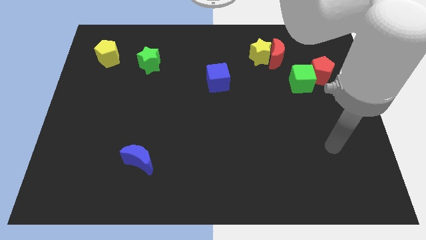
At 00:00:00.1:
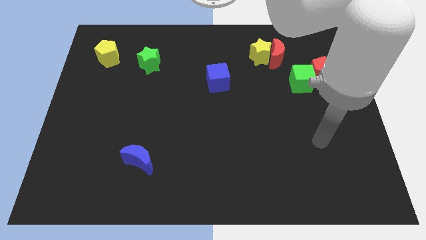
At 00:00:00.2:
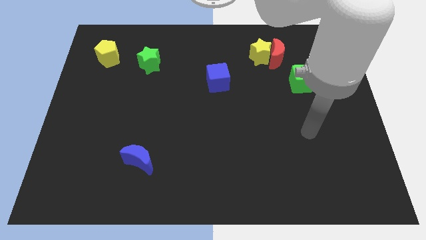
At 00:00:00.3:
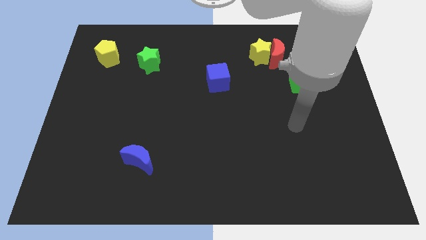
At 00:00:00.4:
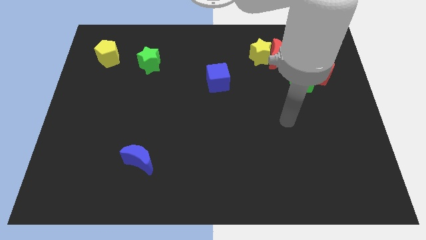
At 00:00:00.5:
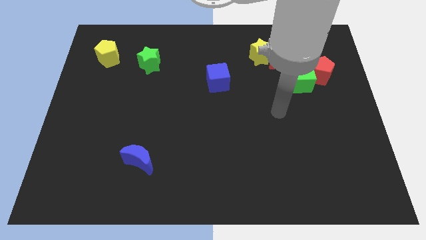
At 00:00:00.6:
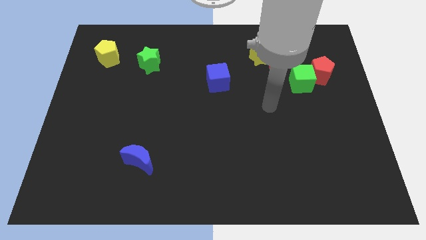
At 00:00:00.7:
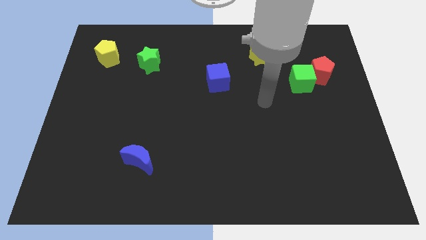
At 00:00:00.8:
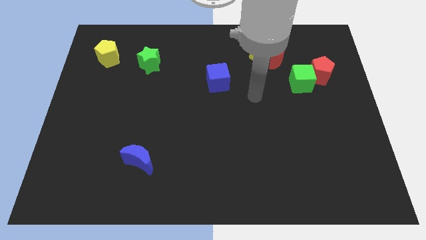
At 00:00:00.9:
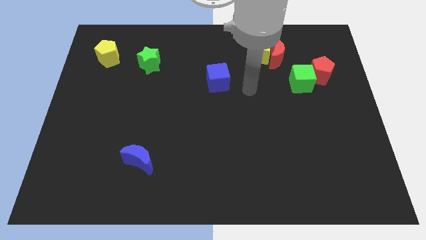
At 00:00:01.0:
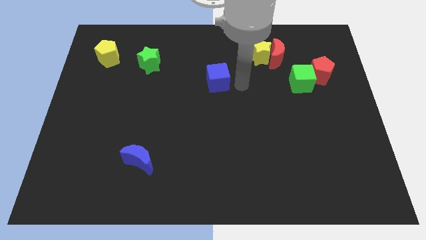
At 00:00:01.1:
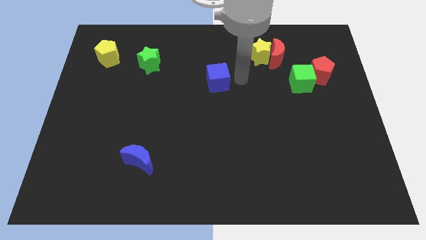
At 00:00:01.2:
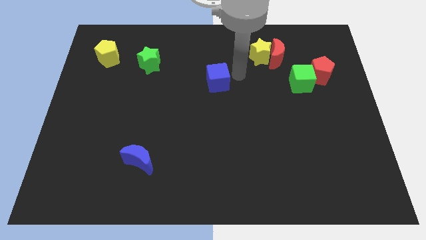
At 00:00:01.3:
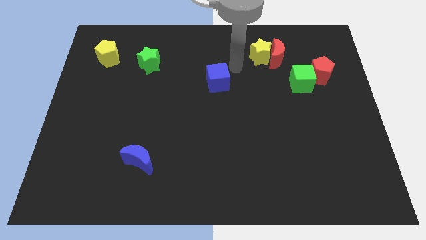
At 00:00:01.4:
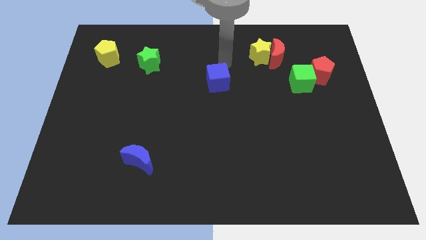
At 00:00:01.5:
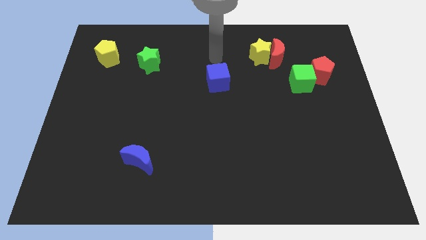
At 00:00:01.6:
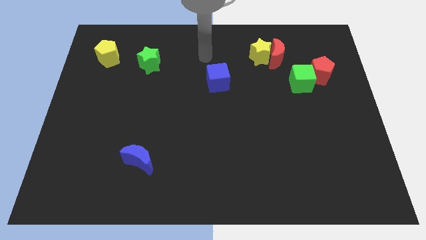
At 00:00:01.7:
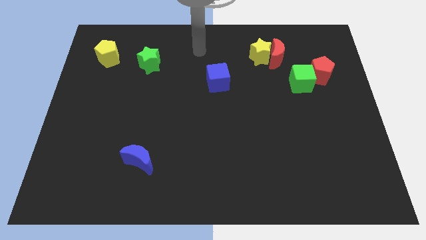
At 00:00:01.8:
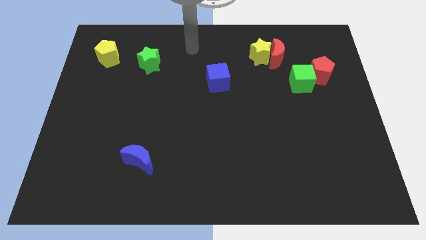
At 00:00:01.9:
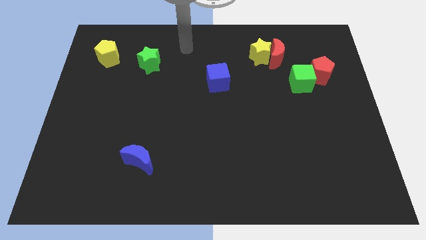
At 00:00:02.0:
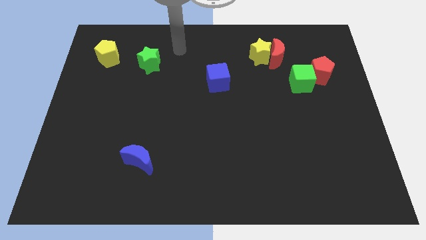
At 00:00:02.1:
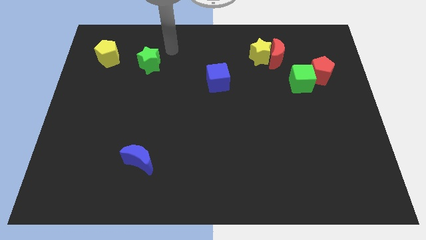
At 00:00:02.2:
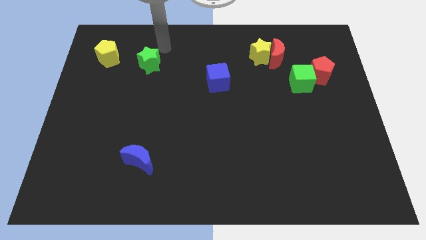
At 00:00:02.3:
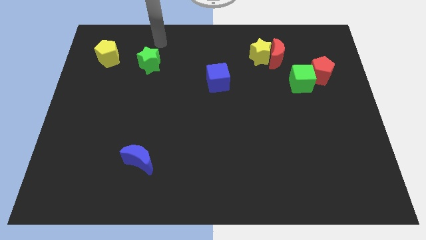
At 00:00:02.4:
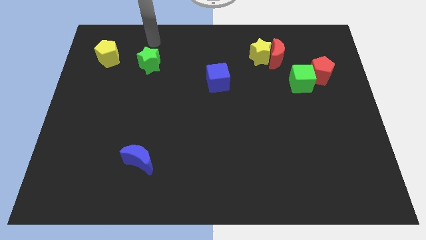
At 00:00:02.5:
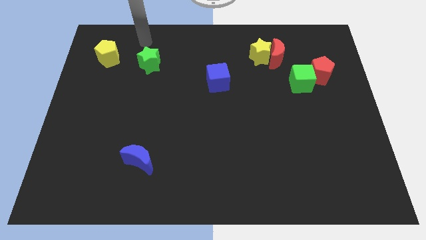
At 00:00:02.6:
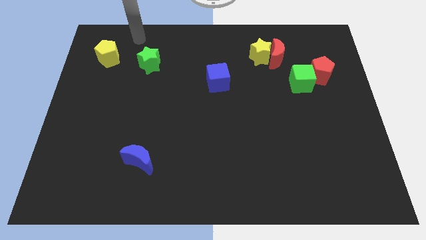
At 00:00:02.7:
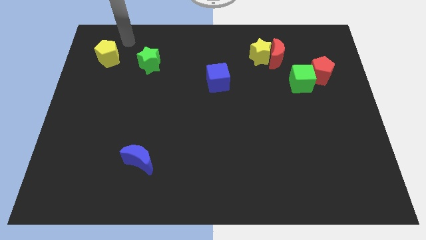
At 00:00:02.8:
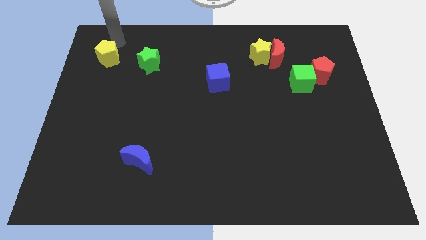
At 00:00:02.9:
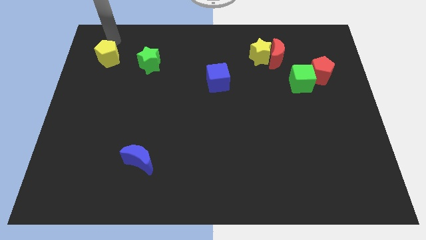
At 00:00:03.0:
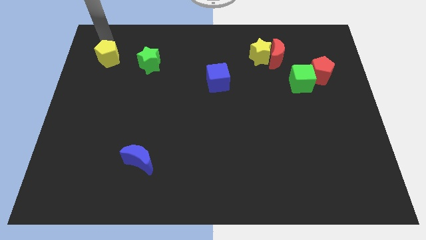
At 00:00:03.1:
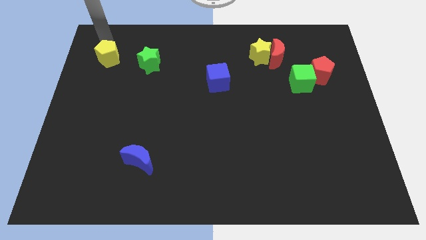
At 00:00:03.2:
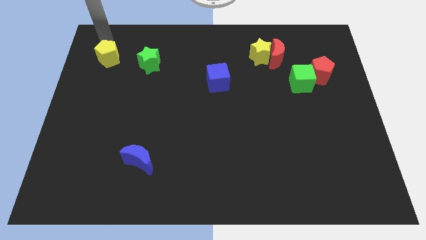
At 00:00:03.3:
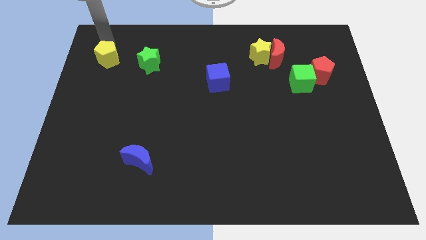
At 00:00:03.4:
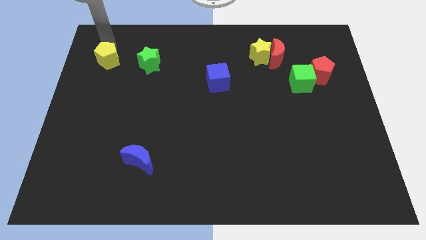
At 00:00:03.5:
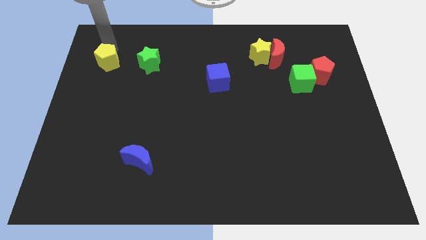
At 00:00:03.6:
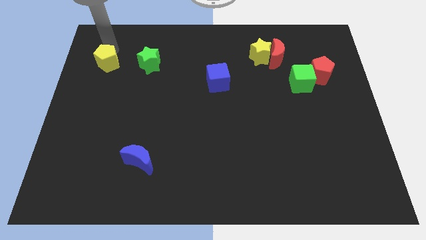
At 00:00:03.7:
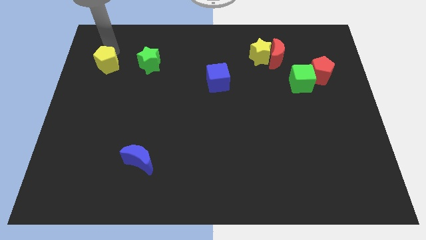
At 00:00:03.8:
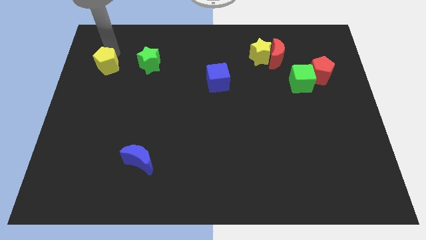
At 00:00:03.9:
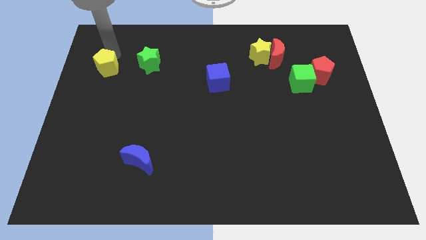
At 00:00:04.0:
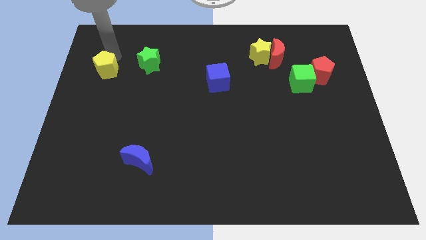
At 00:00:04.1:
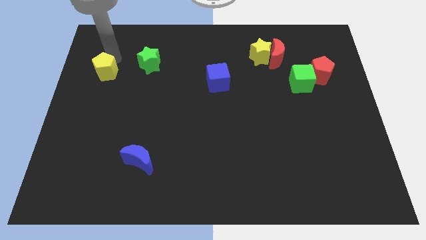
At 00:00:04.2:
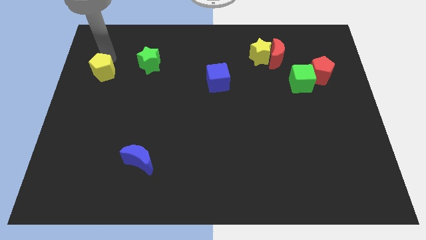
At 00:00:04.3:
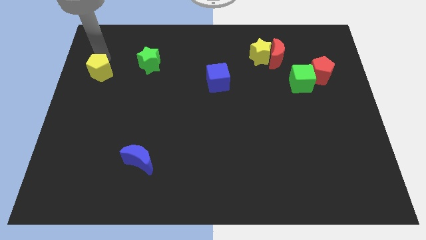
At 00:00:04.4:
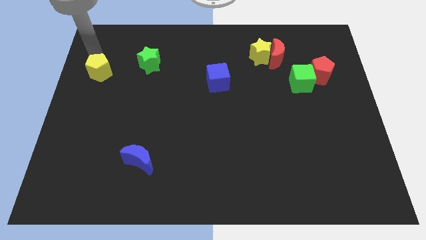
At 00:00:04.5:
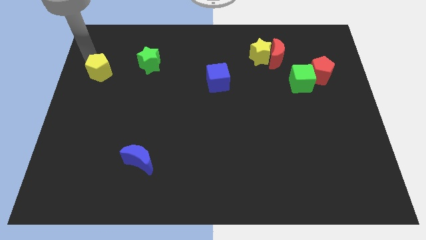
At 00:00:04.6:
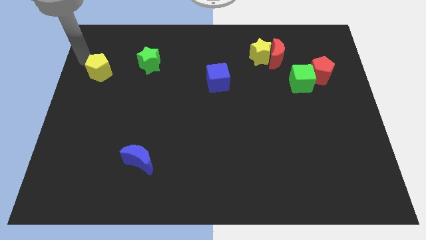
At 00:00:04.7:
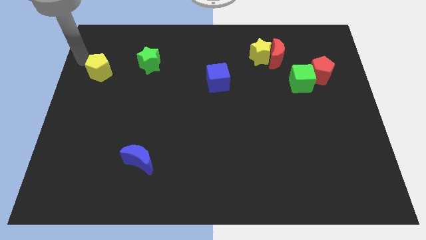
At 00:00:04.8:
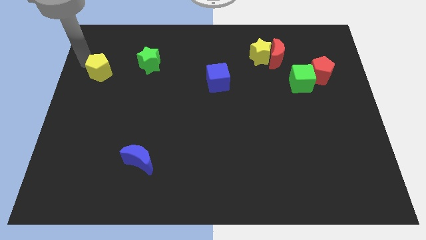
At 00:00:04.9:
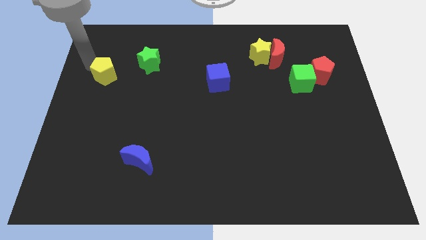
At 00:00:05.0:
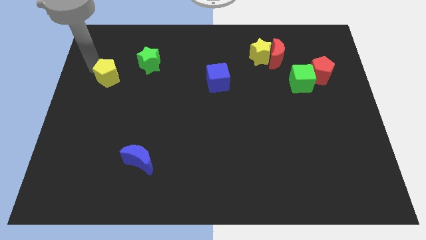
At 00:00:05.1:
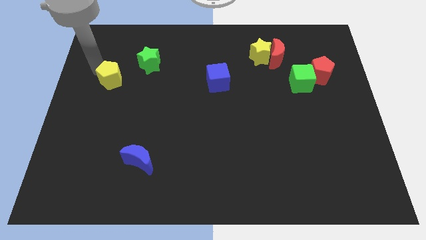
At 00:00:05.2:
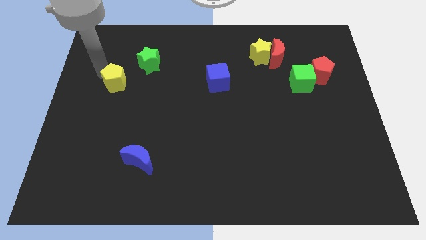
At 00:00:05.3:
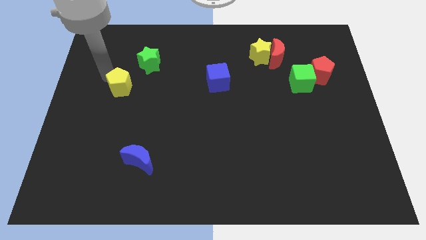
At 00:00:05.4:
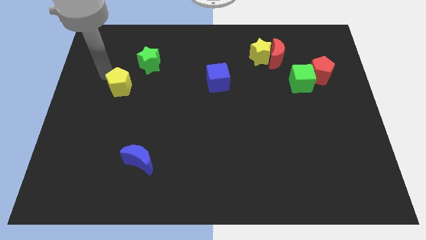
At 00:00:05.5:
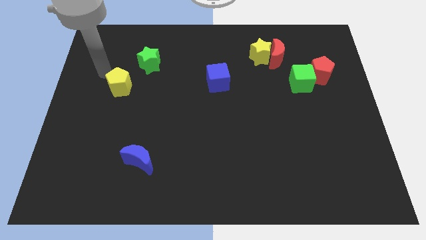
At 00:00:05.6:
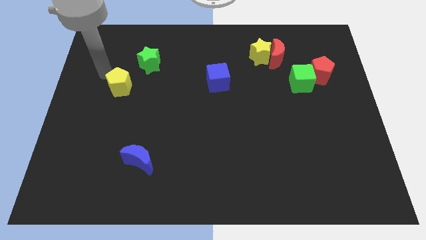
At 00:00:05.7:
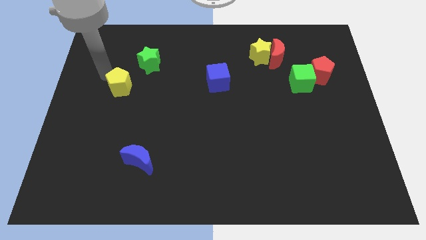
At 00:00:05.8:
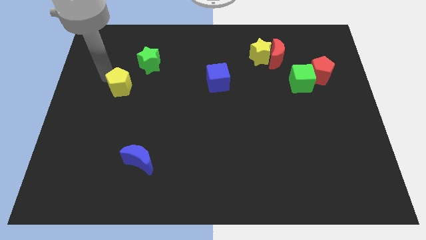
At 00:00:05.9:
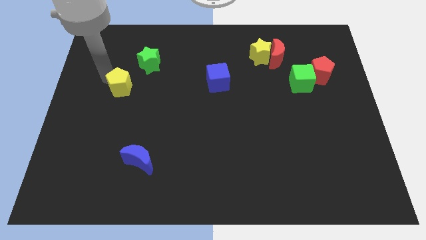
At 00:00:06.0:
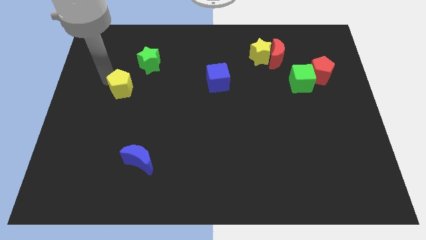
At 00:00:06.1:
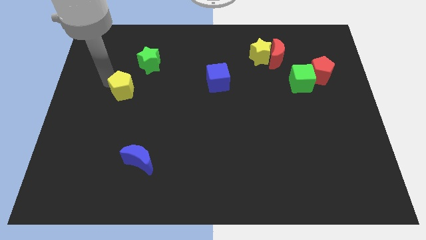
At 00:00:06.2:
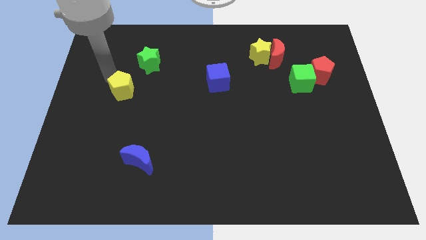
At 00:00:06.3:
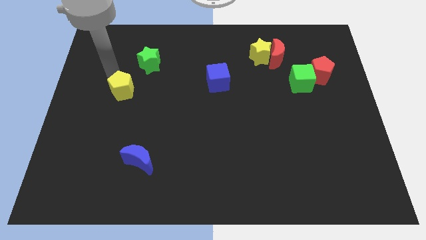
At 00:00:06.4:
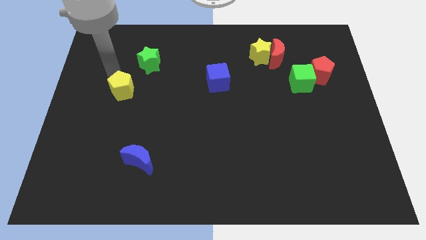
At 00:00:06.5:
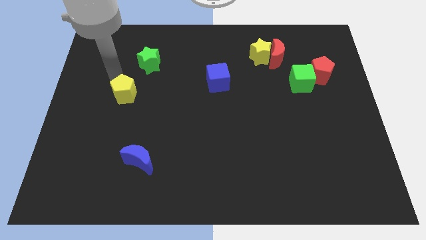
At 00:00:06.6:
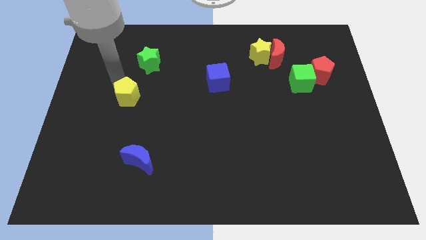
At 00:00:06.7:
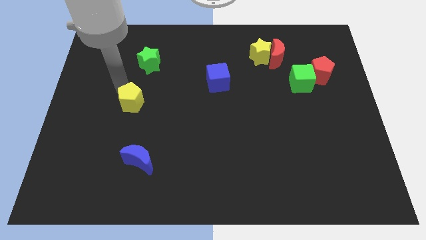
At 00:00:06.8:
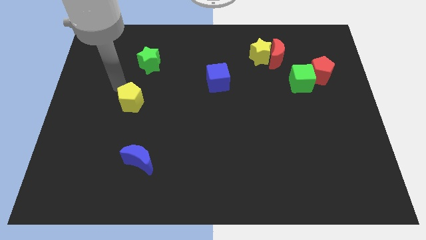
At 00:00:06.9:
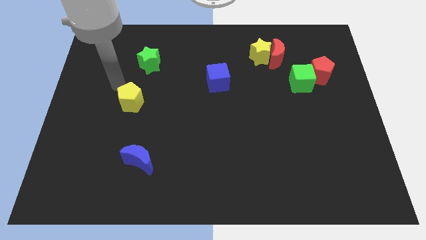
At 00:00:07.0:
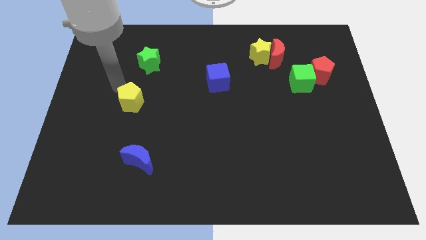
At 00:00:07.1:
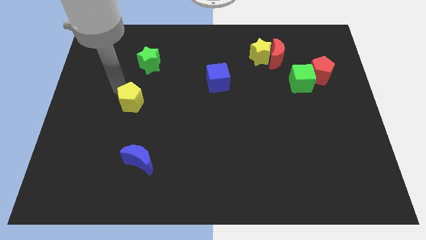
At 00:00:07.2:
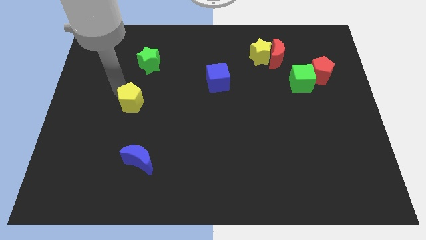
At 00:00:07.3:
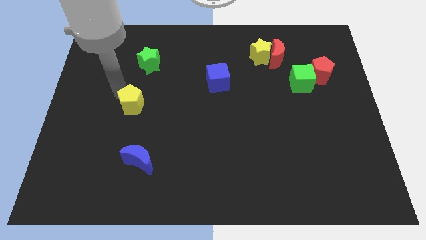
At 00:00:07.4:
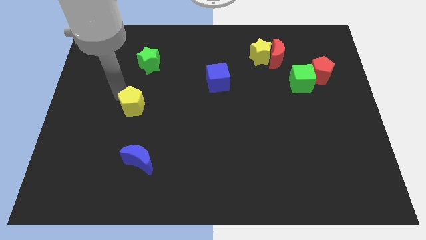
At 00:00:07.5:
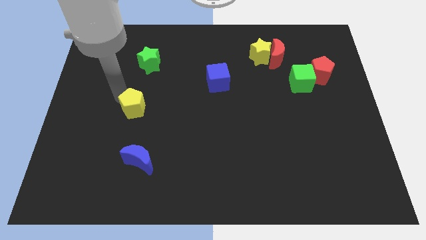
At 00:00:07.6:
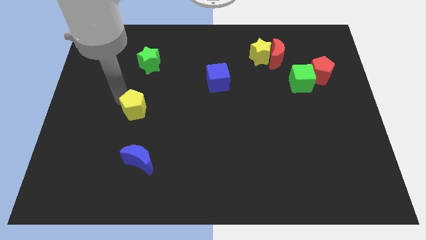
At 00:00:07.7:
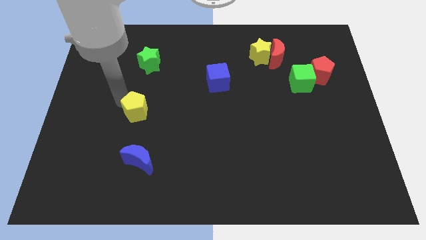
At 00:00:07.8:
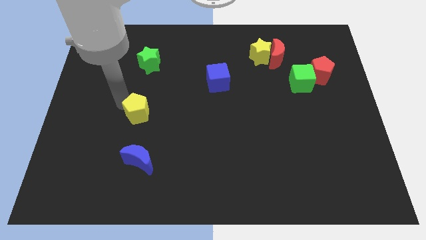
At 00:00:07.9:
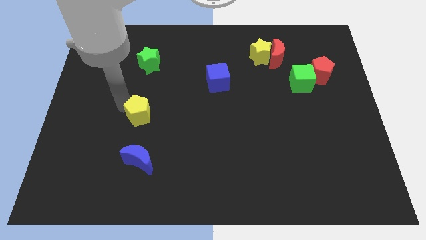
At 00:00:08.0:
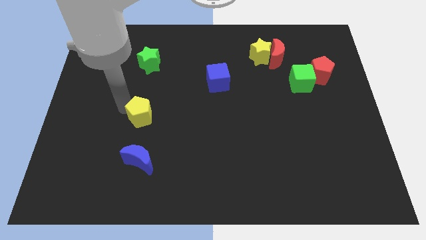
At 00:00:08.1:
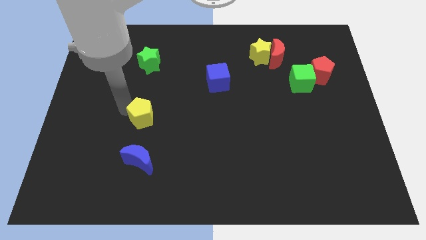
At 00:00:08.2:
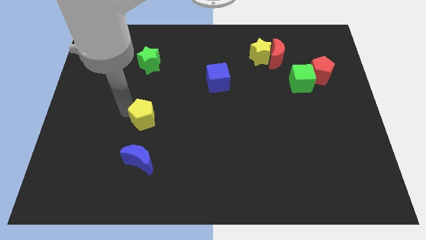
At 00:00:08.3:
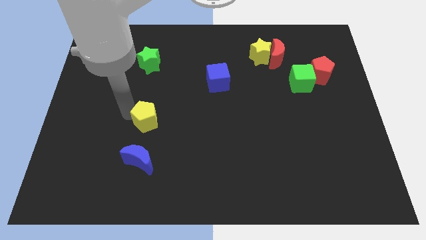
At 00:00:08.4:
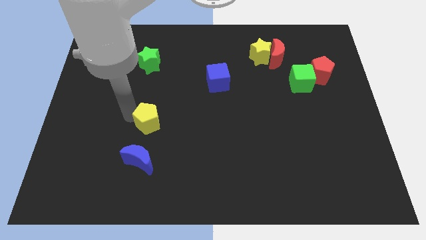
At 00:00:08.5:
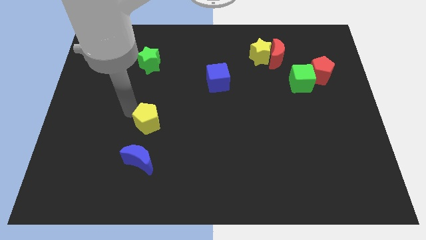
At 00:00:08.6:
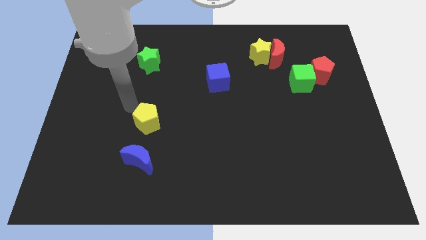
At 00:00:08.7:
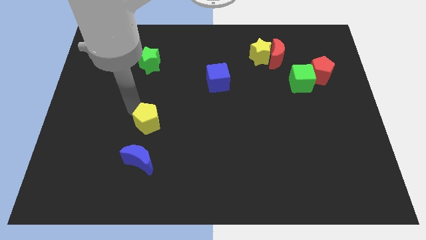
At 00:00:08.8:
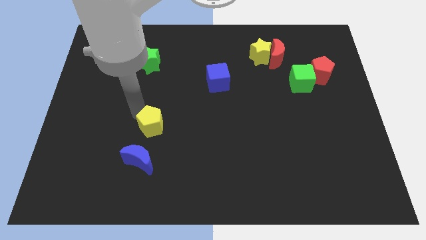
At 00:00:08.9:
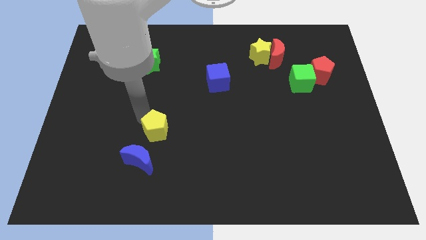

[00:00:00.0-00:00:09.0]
put the yellow pentagon to the top right side of the blue moon
